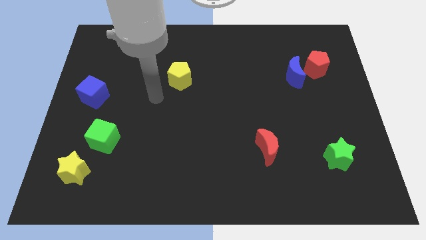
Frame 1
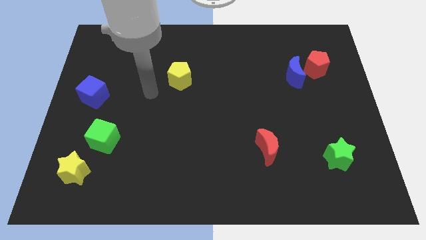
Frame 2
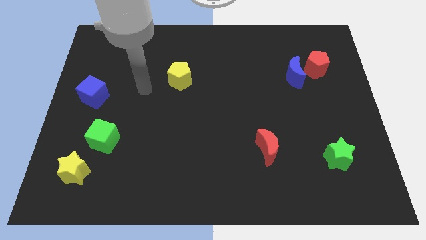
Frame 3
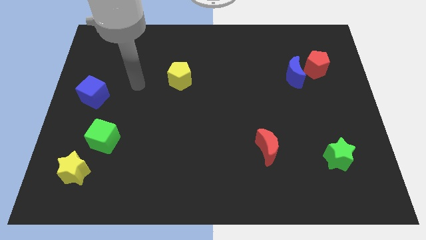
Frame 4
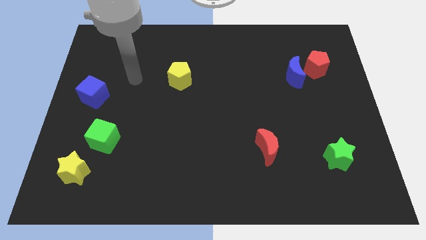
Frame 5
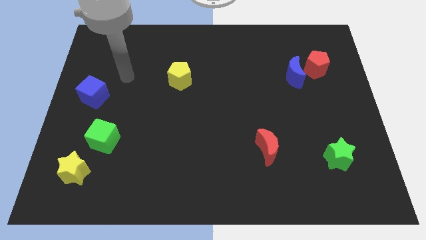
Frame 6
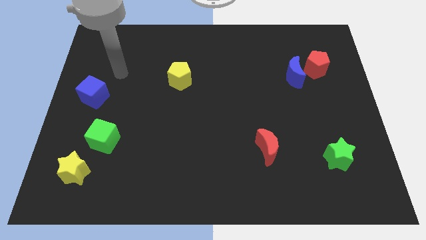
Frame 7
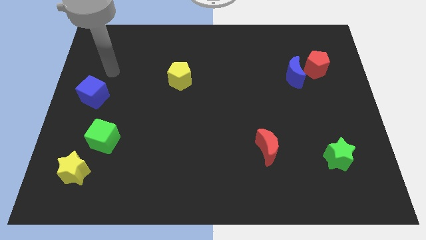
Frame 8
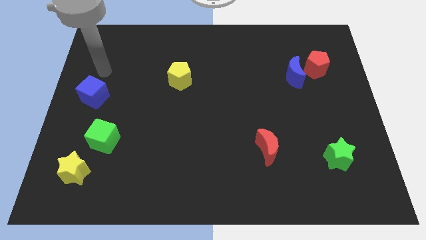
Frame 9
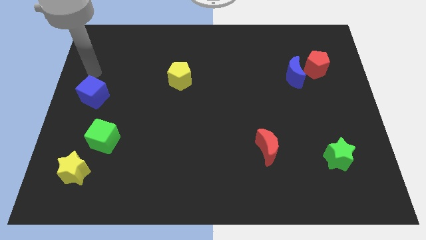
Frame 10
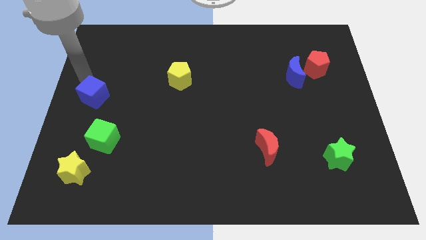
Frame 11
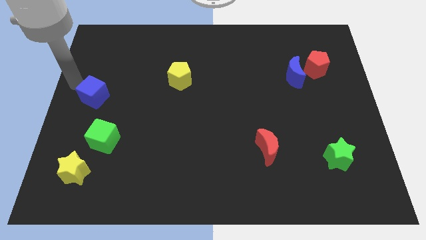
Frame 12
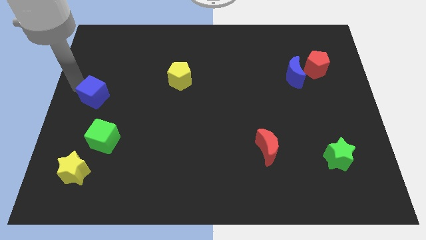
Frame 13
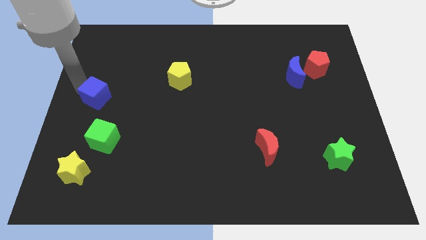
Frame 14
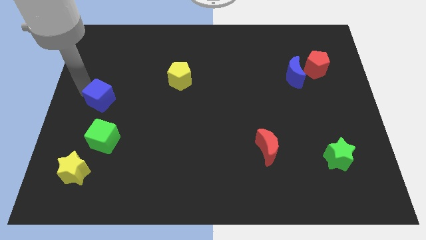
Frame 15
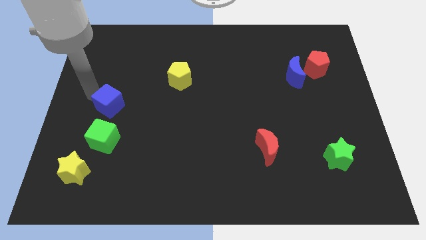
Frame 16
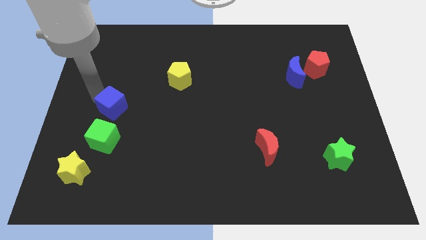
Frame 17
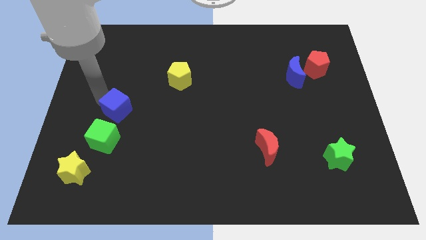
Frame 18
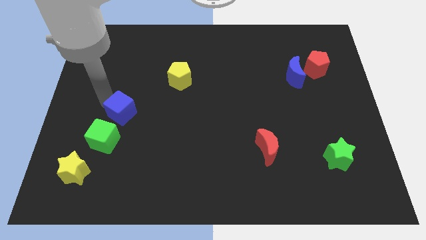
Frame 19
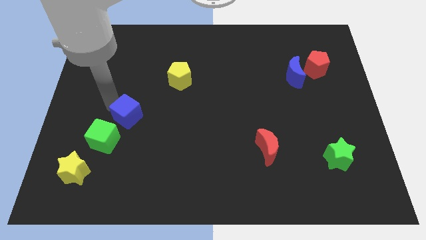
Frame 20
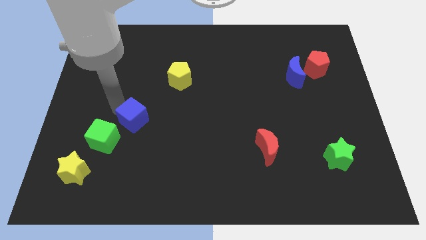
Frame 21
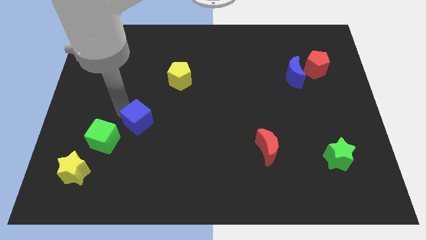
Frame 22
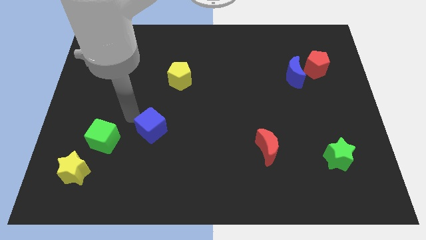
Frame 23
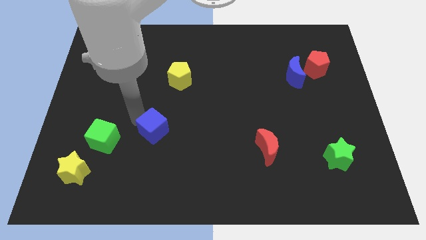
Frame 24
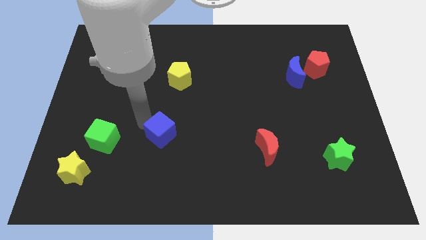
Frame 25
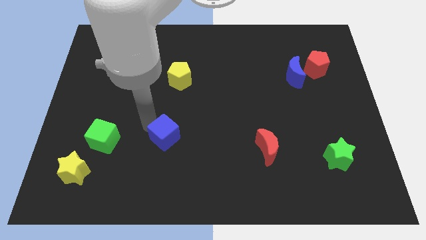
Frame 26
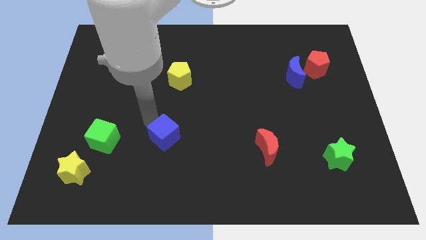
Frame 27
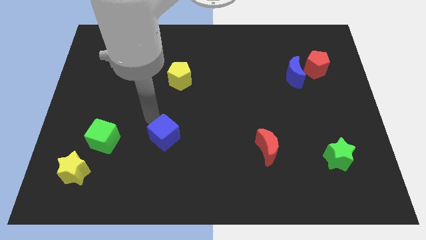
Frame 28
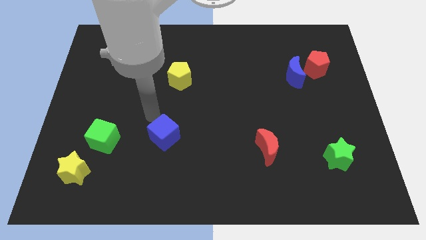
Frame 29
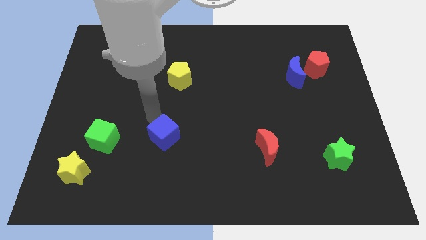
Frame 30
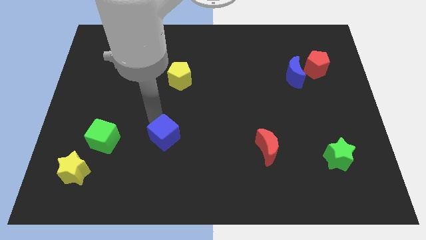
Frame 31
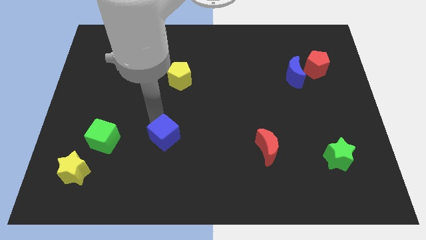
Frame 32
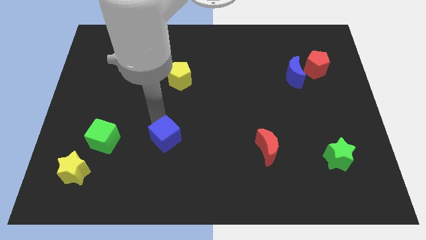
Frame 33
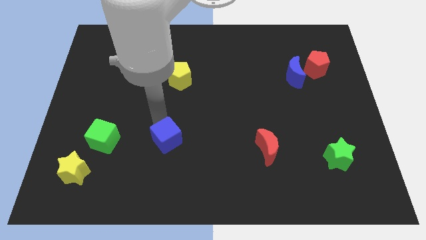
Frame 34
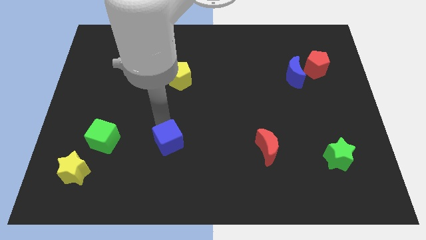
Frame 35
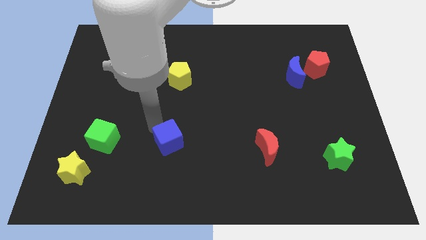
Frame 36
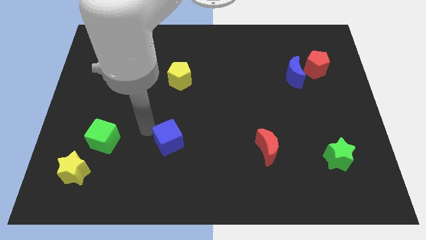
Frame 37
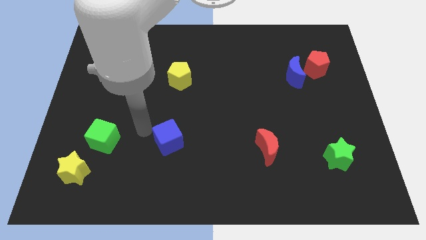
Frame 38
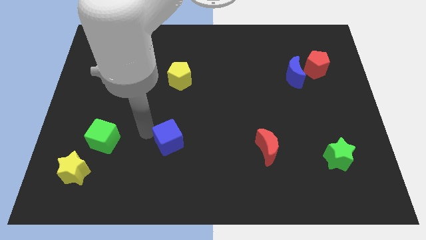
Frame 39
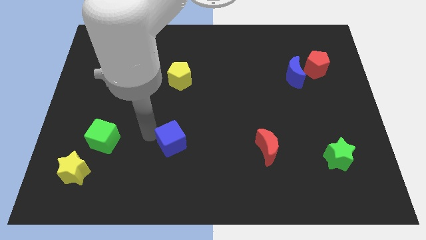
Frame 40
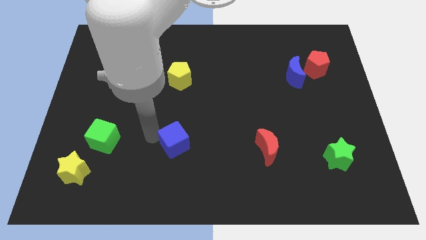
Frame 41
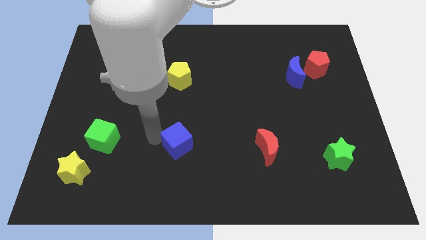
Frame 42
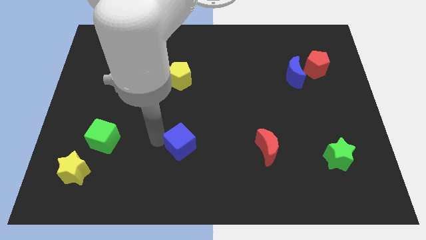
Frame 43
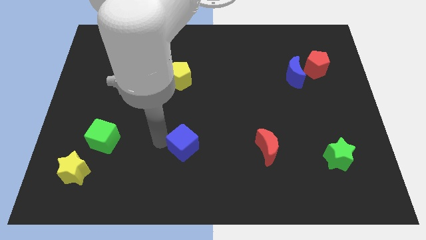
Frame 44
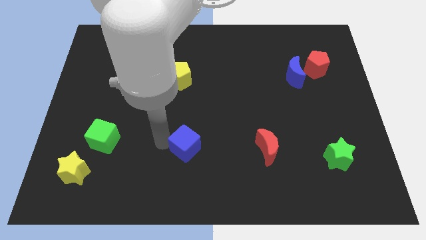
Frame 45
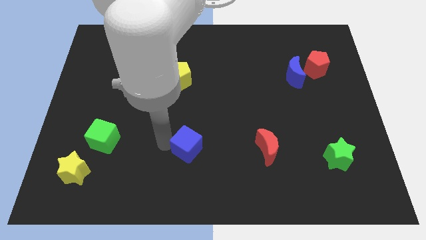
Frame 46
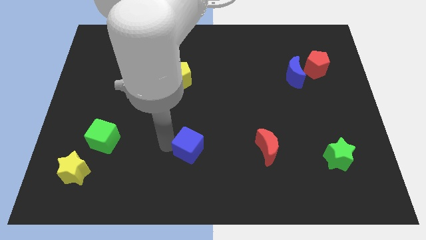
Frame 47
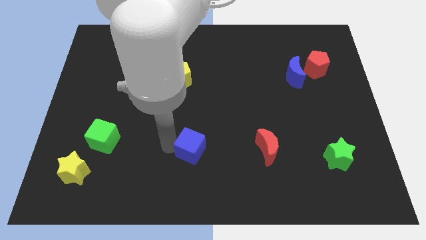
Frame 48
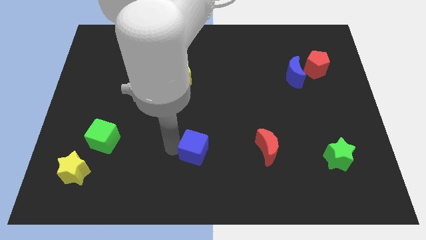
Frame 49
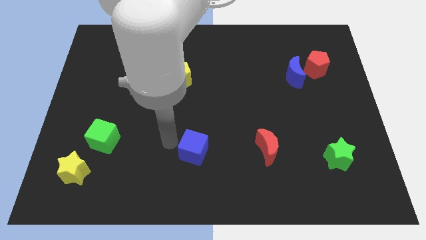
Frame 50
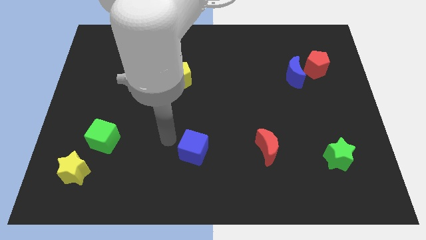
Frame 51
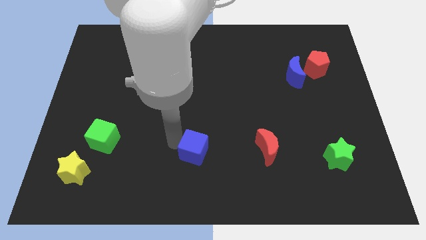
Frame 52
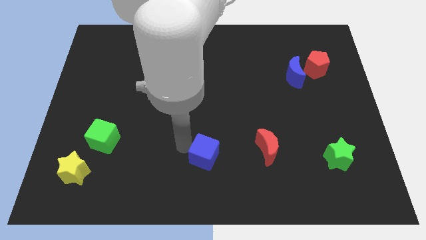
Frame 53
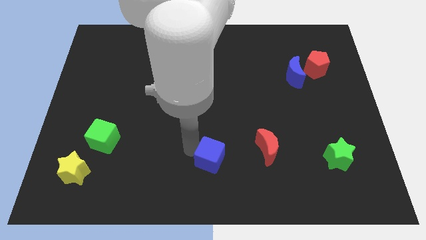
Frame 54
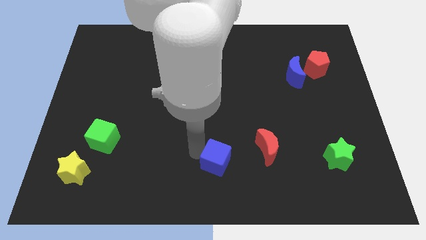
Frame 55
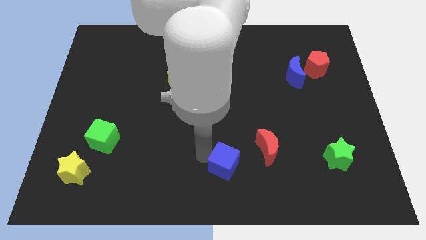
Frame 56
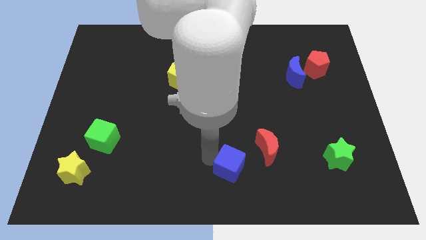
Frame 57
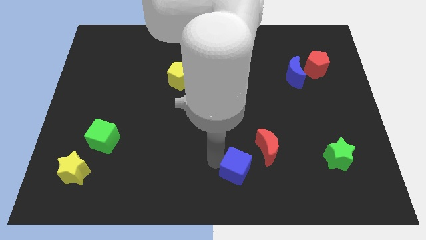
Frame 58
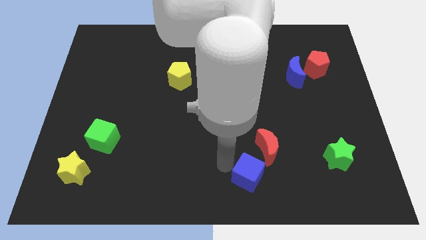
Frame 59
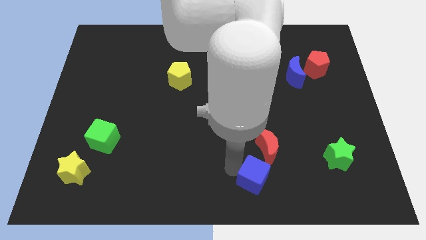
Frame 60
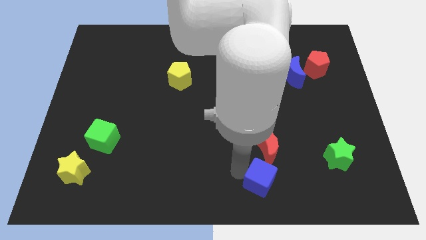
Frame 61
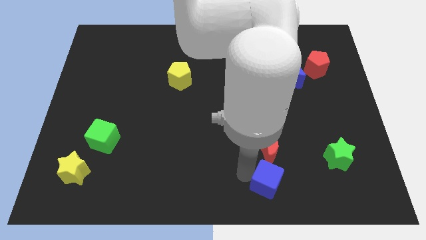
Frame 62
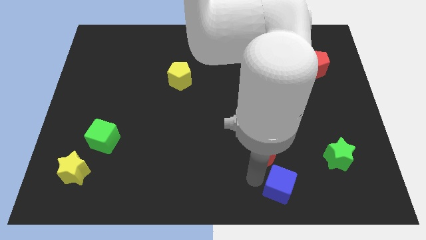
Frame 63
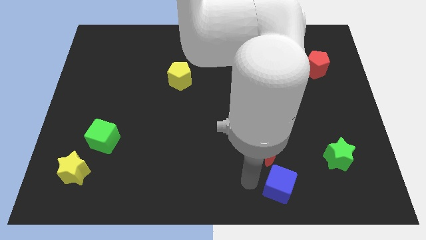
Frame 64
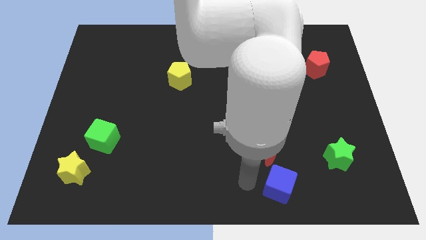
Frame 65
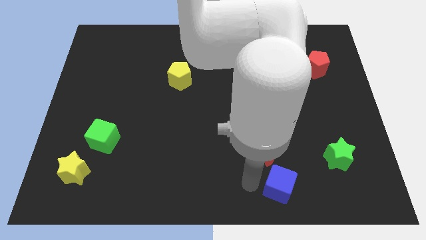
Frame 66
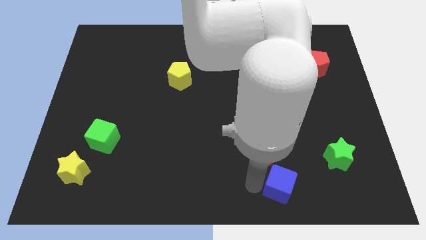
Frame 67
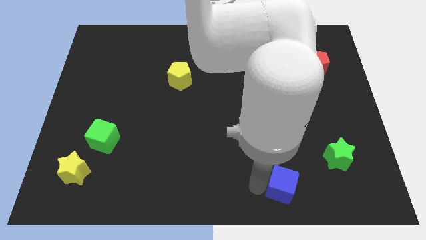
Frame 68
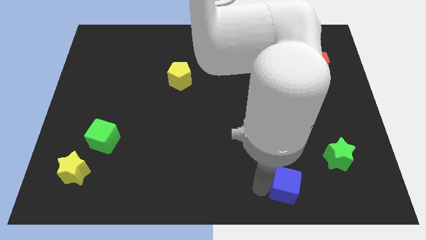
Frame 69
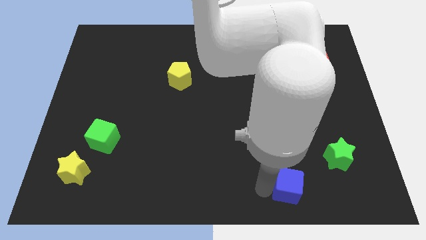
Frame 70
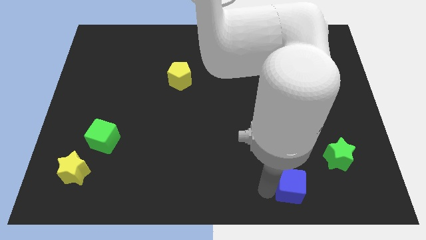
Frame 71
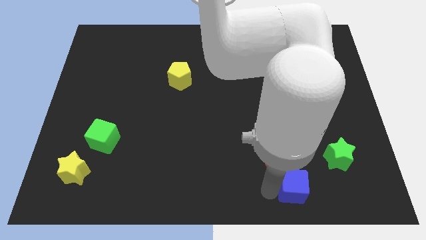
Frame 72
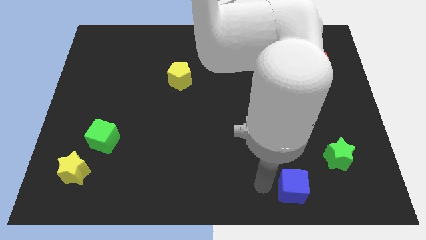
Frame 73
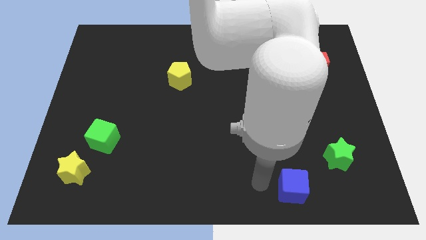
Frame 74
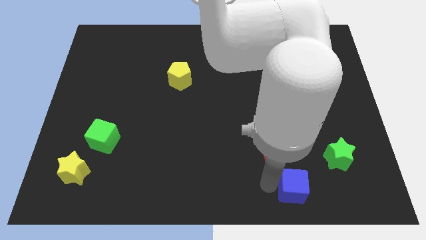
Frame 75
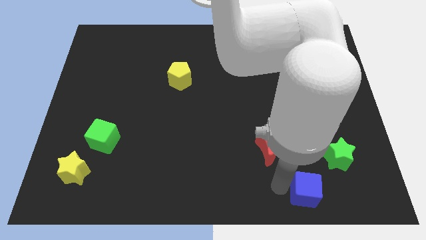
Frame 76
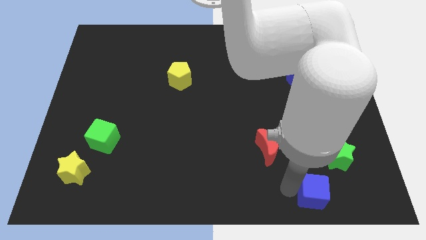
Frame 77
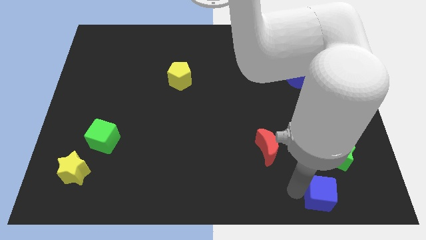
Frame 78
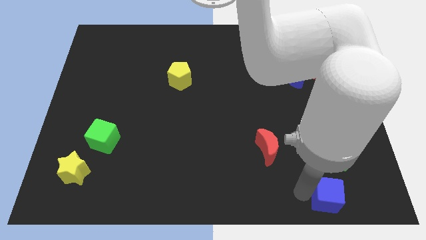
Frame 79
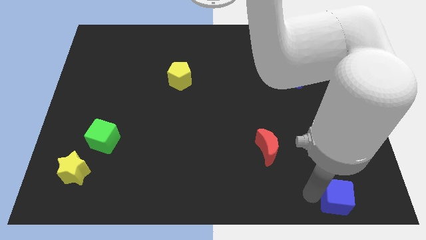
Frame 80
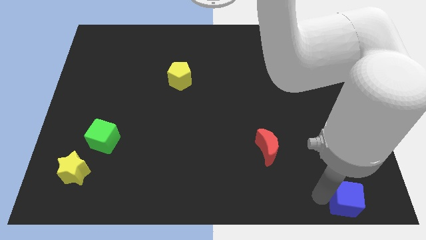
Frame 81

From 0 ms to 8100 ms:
push the blue cube to the bottom right corner
